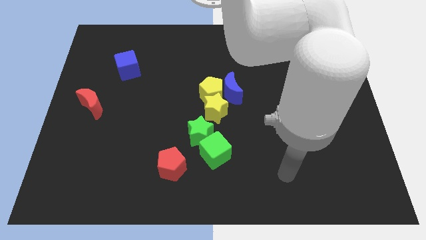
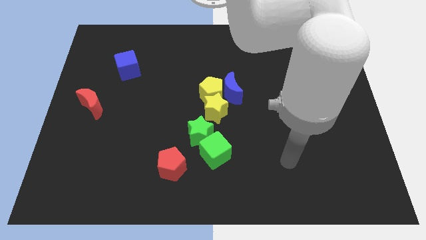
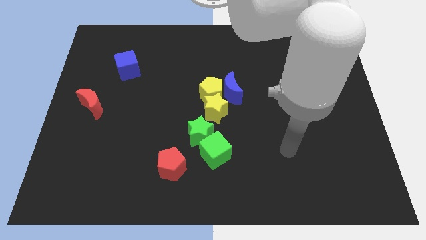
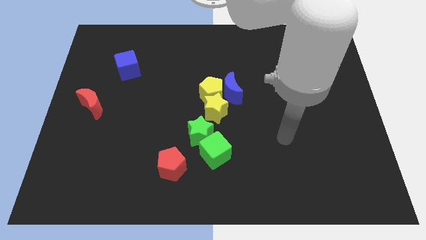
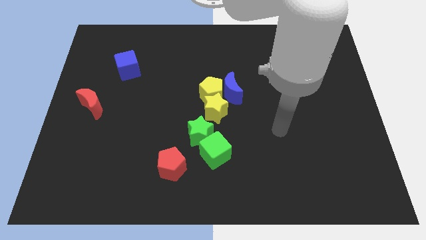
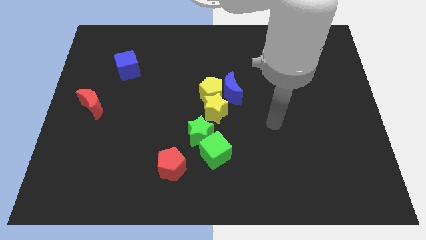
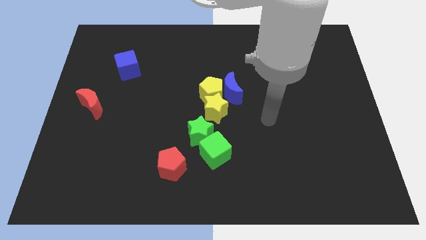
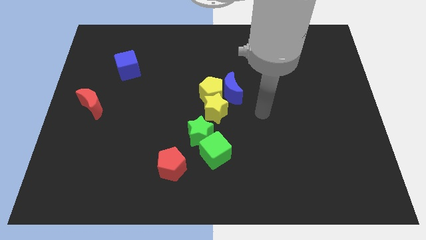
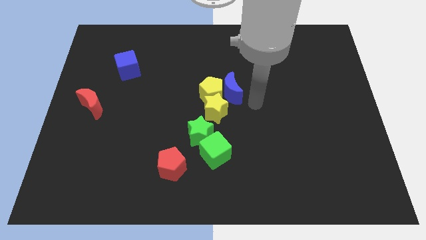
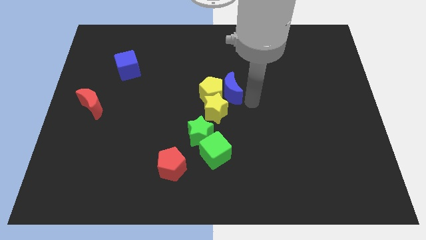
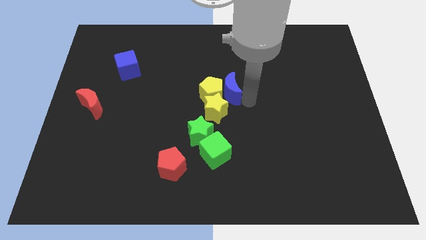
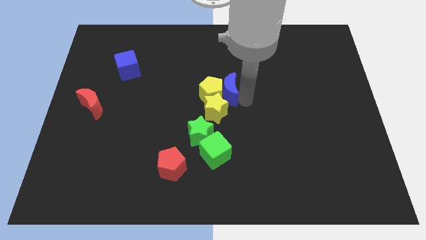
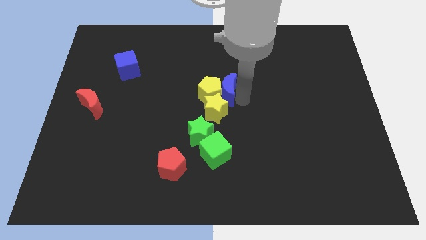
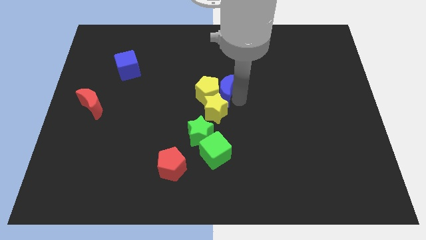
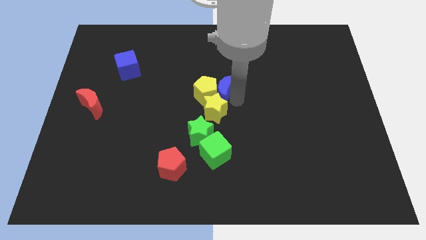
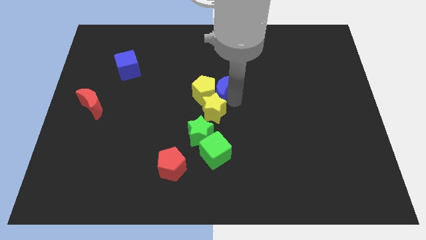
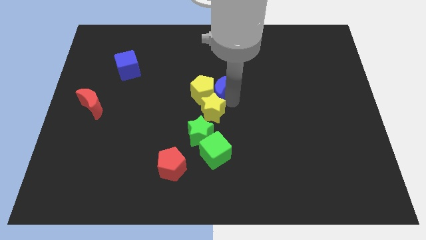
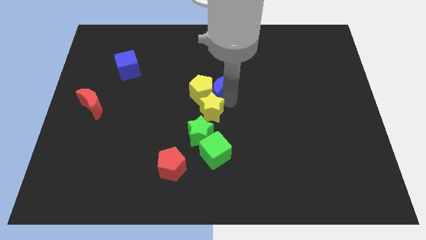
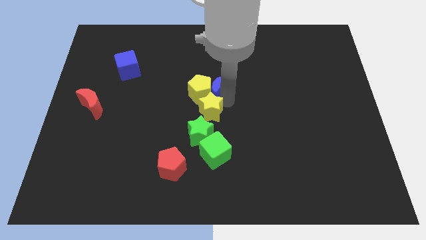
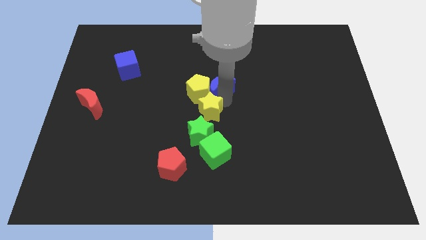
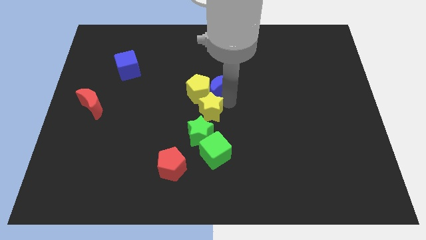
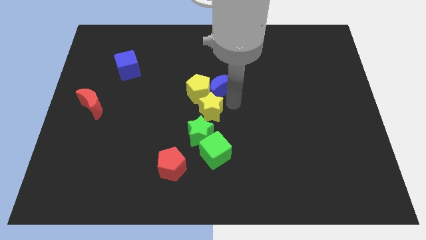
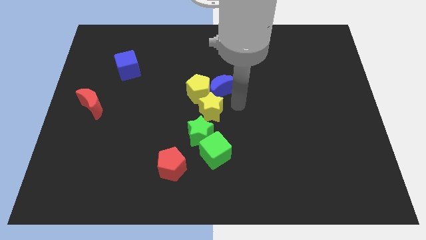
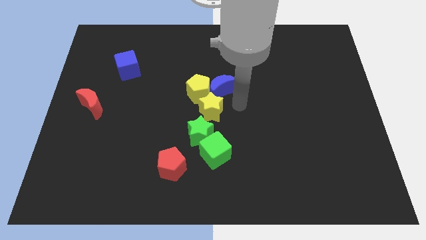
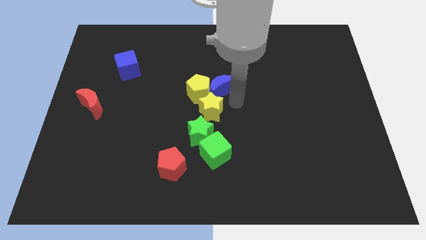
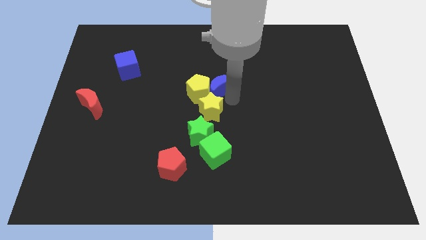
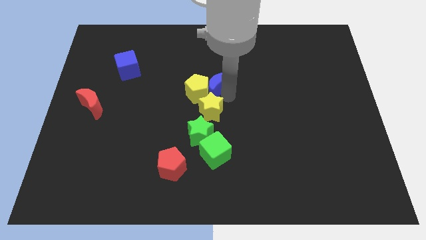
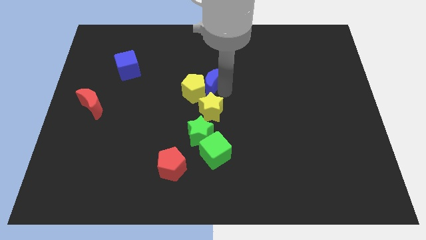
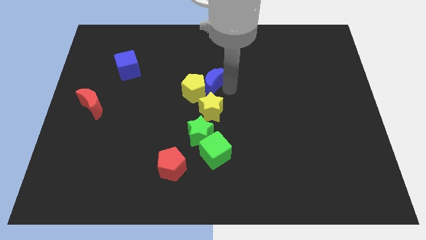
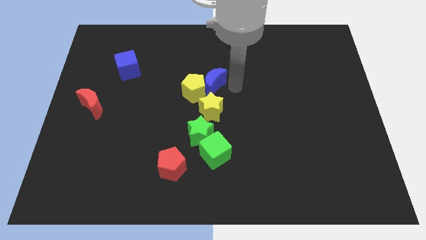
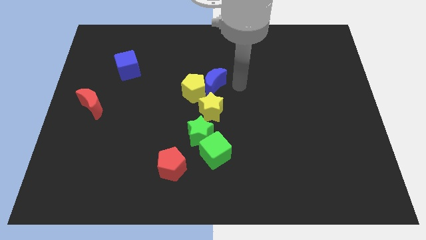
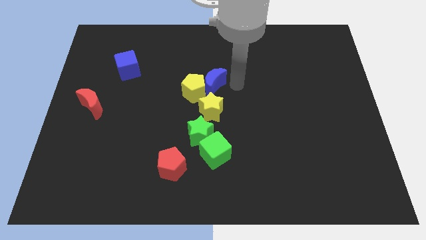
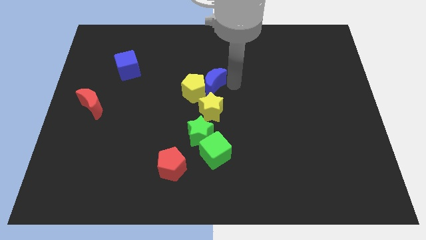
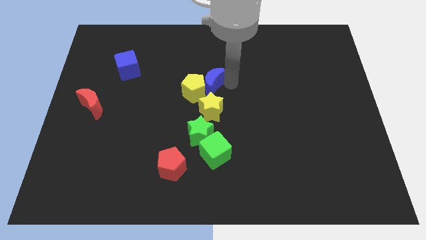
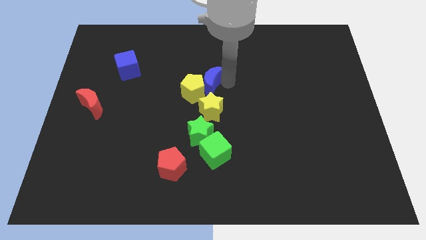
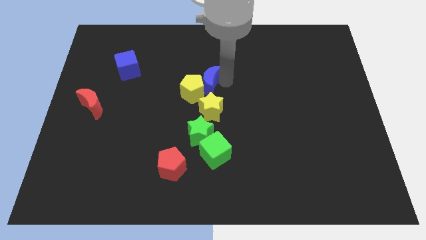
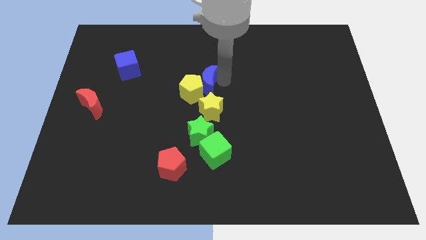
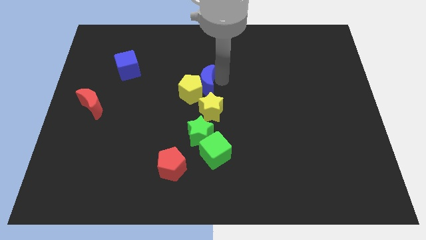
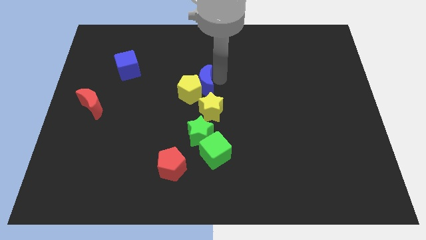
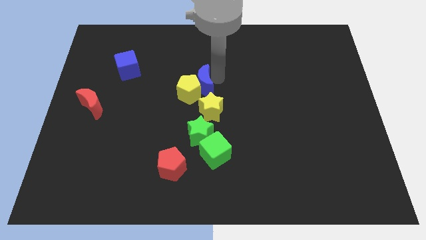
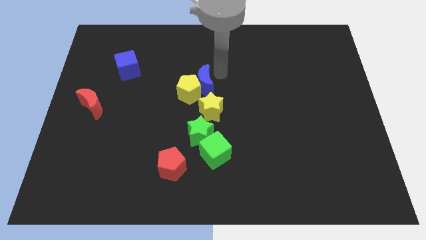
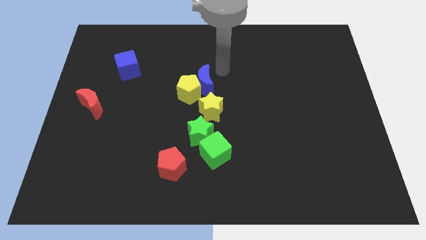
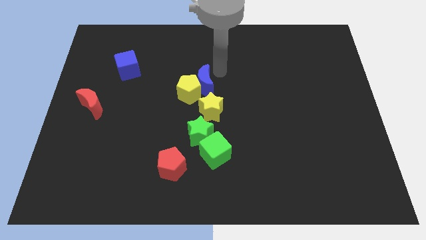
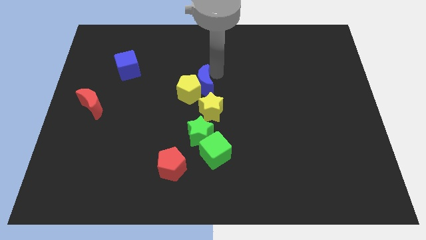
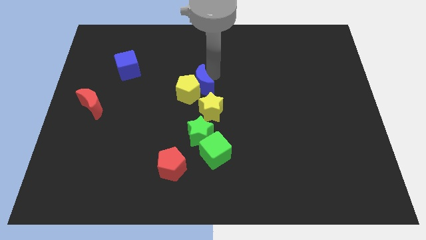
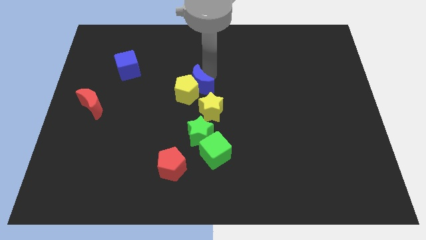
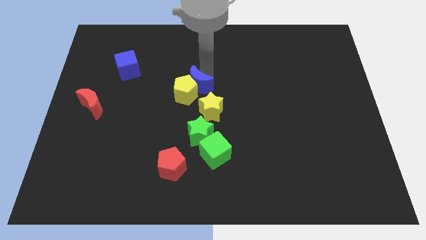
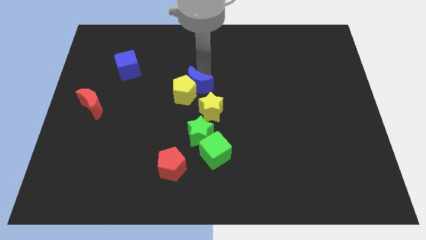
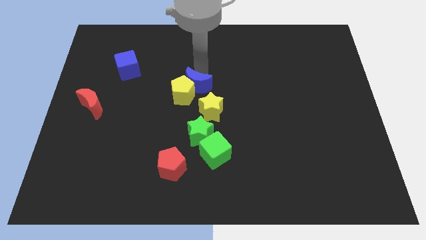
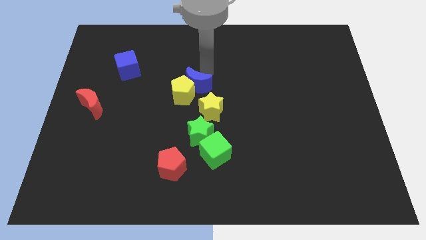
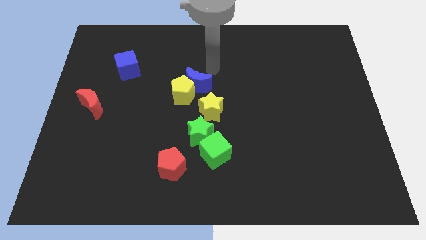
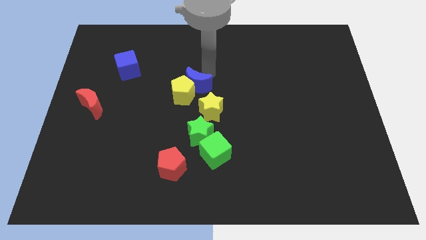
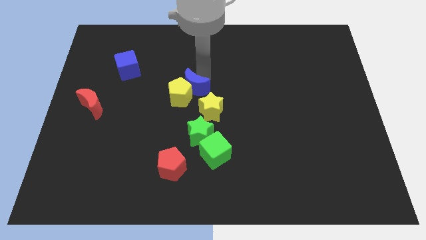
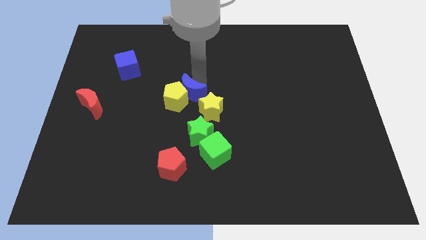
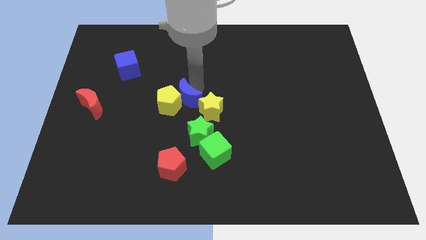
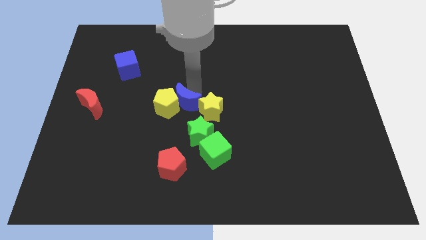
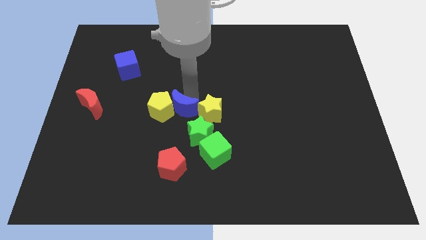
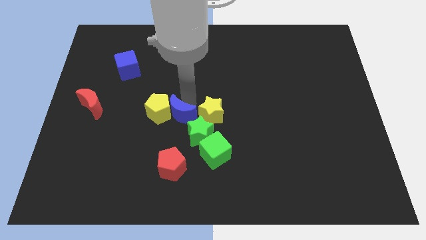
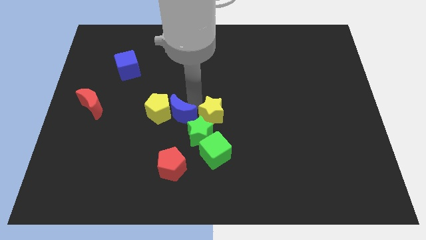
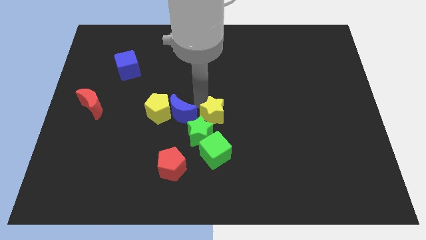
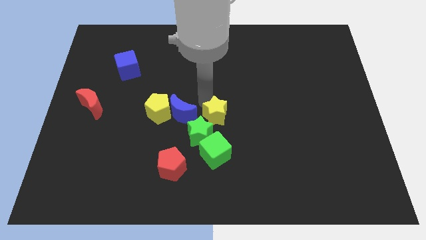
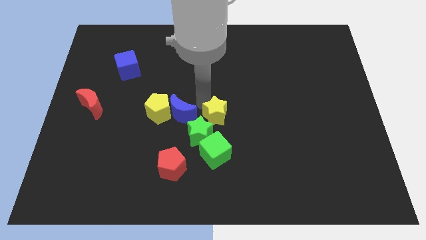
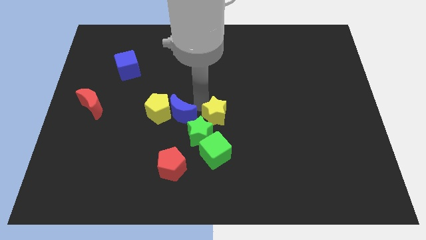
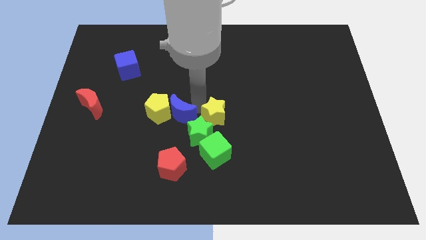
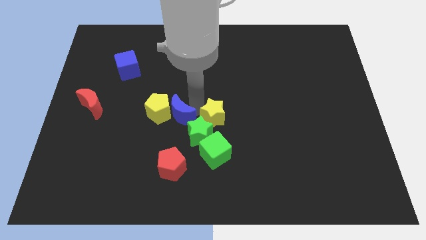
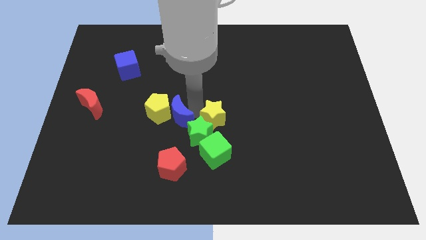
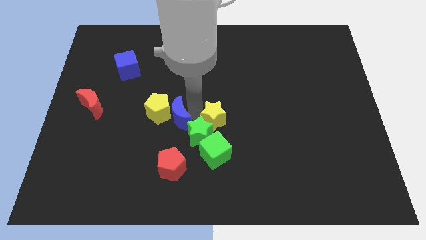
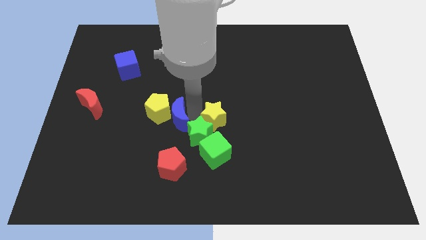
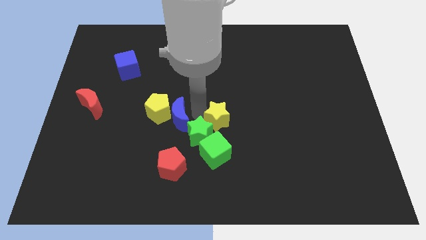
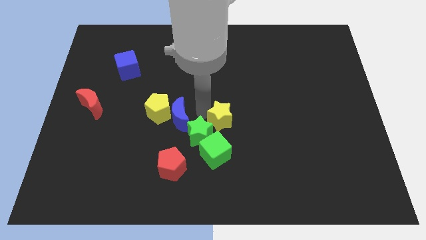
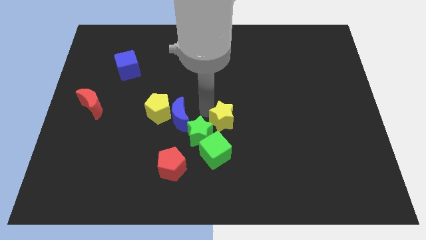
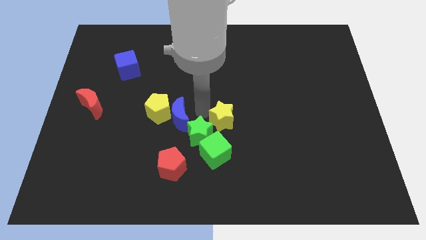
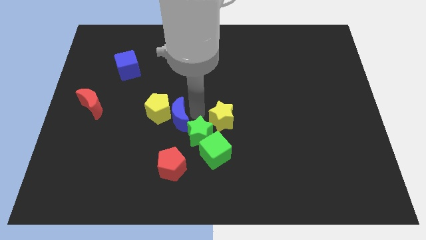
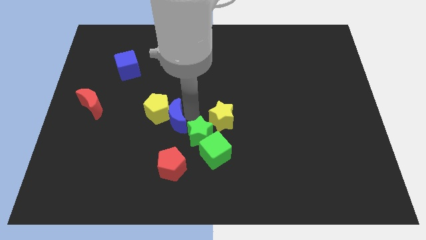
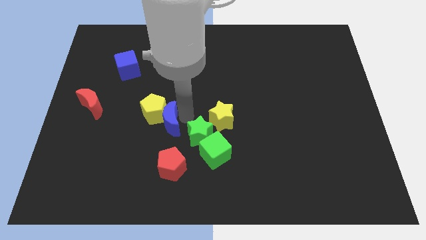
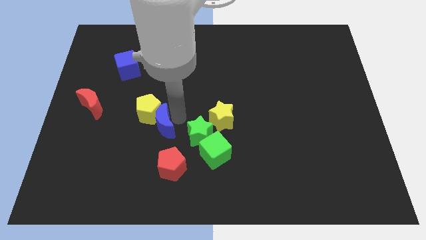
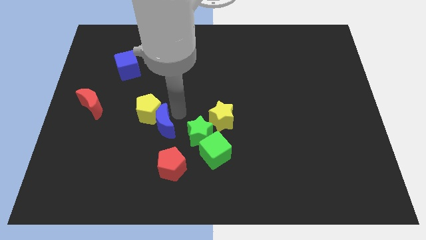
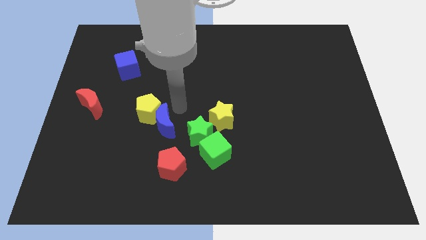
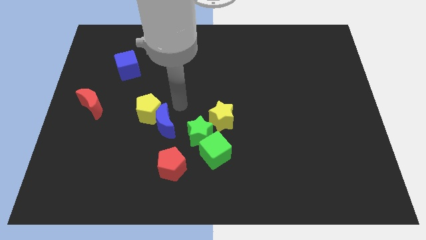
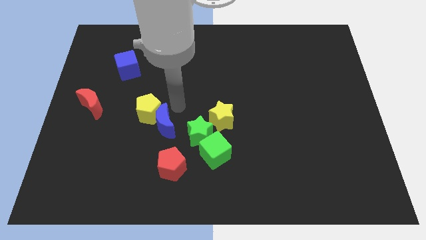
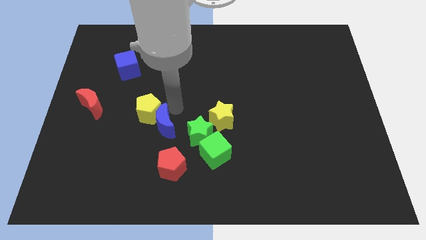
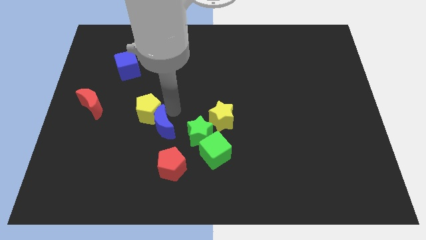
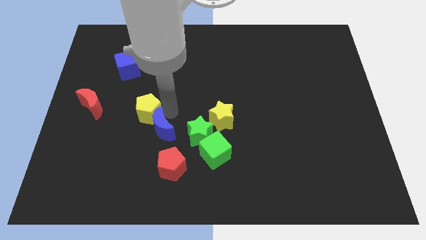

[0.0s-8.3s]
put the blue moon to the top left side of the red pentagon
